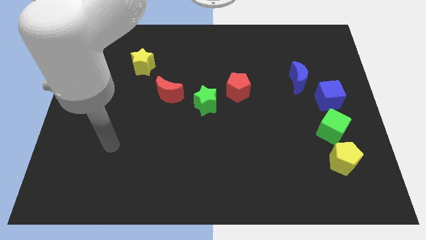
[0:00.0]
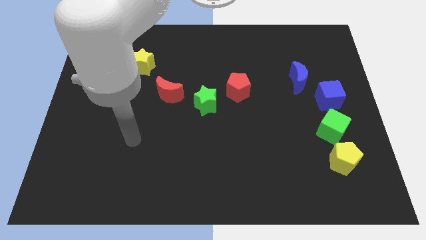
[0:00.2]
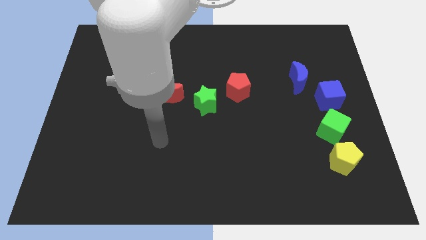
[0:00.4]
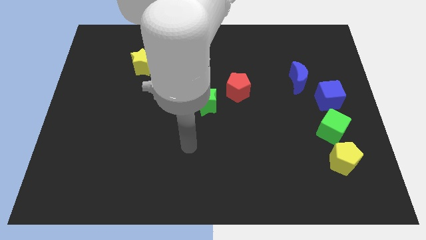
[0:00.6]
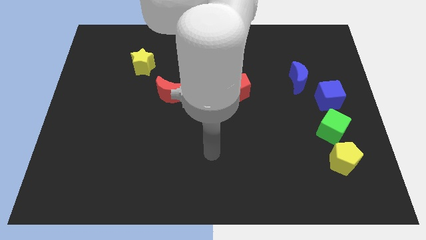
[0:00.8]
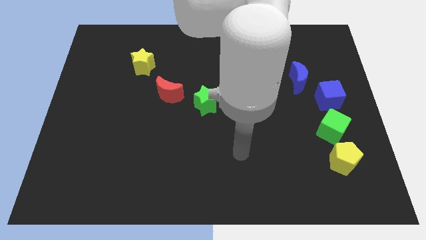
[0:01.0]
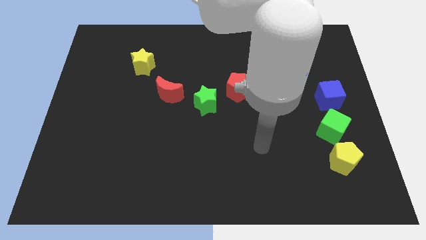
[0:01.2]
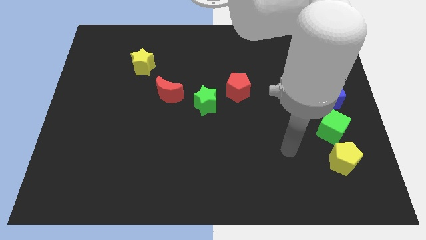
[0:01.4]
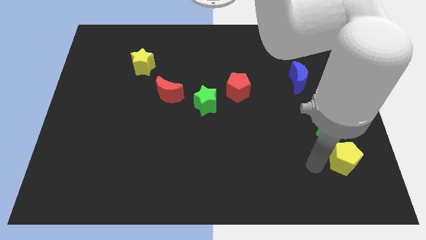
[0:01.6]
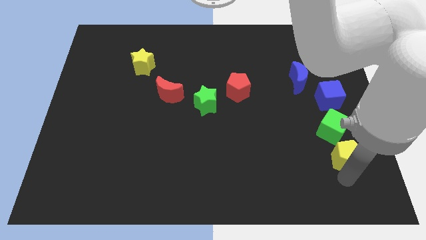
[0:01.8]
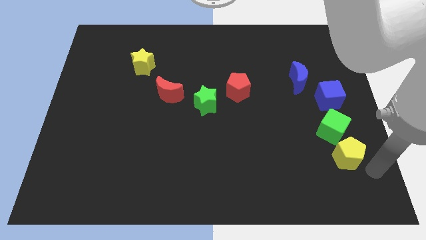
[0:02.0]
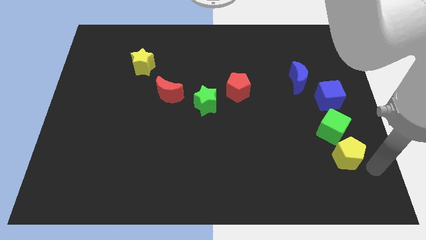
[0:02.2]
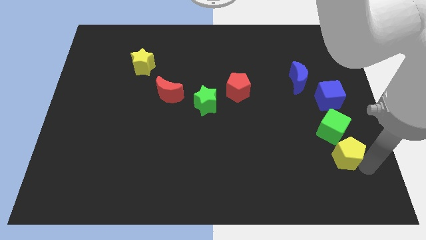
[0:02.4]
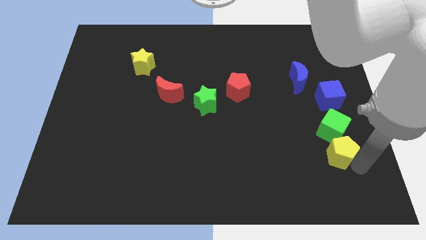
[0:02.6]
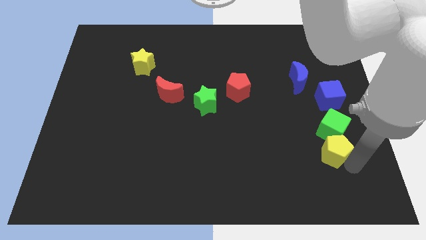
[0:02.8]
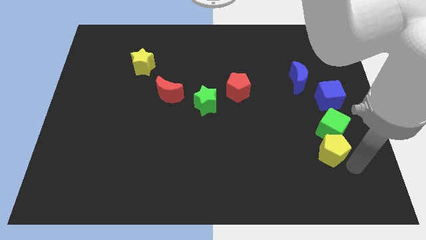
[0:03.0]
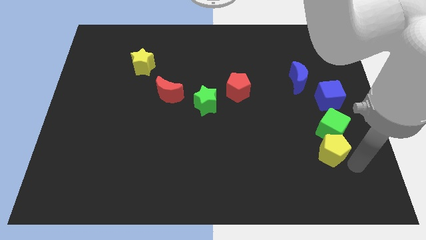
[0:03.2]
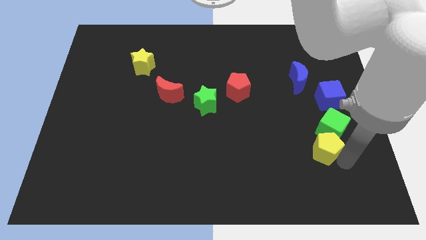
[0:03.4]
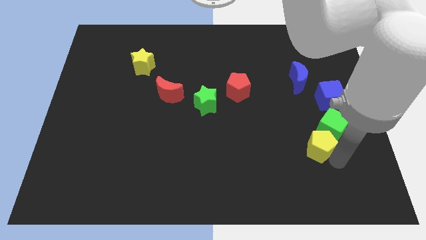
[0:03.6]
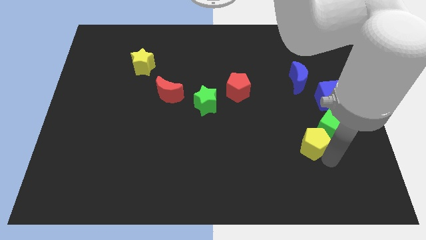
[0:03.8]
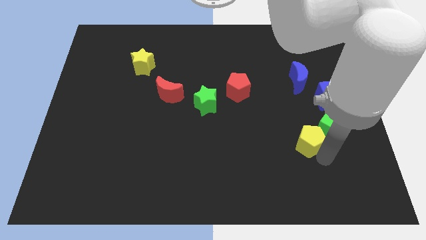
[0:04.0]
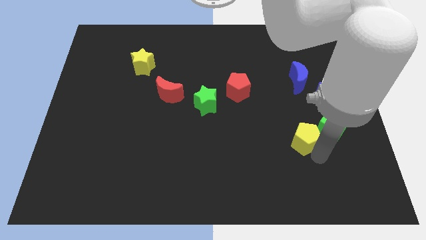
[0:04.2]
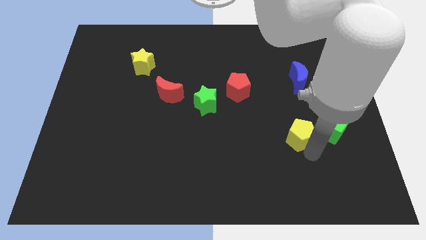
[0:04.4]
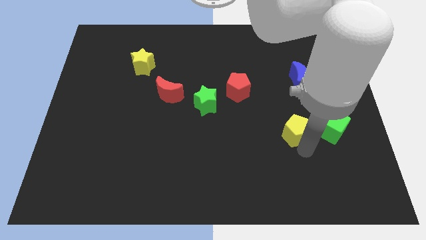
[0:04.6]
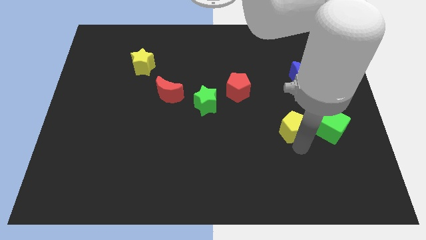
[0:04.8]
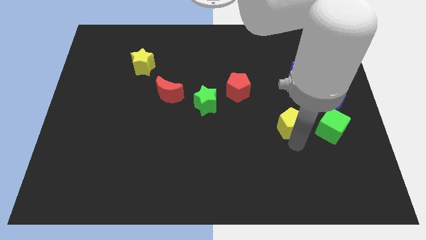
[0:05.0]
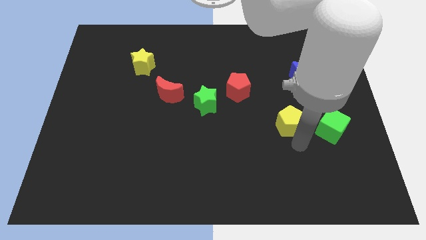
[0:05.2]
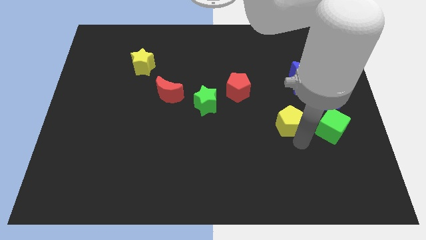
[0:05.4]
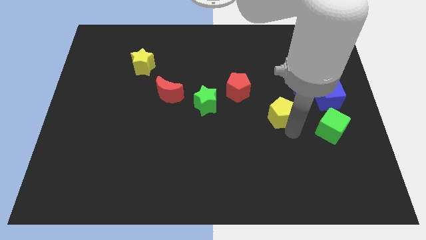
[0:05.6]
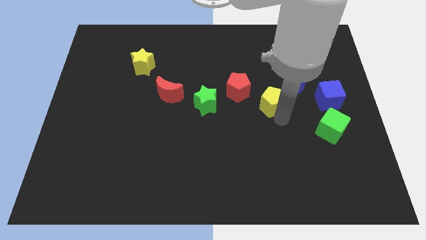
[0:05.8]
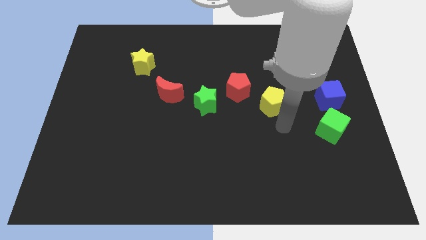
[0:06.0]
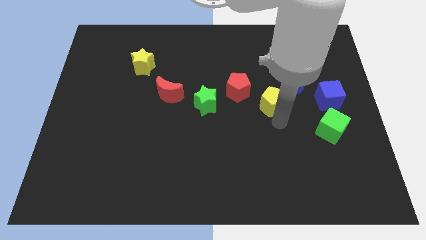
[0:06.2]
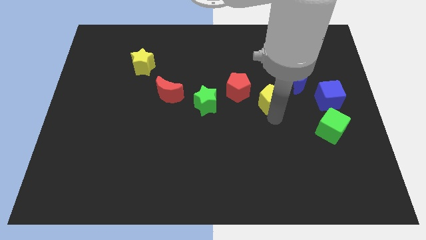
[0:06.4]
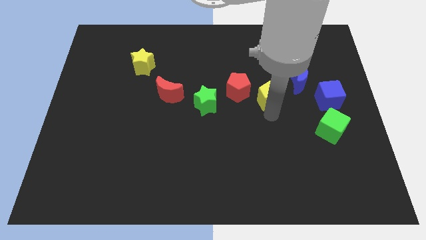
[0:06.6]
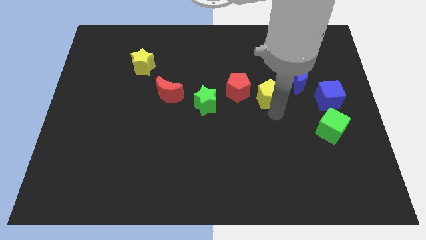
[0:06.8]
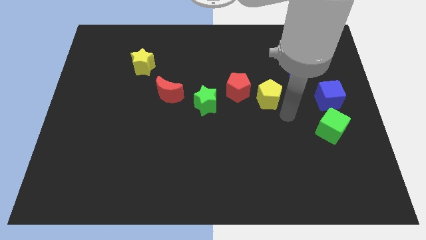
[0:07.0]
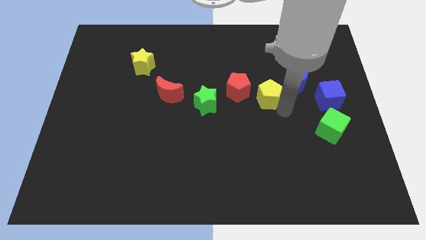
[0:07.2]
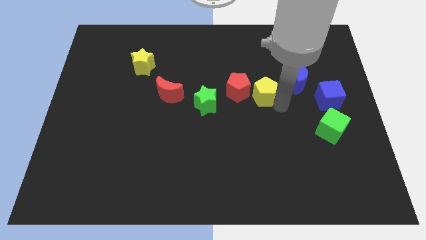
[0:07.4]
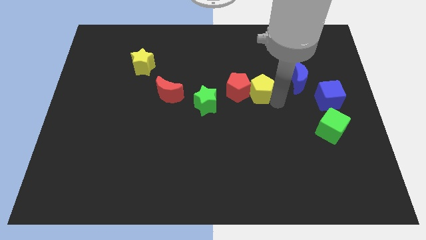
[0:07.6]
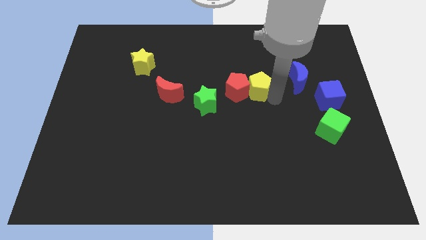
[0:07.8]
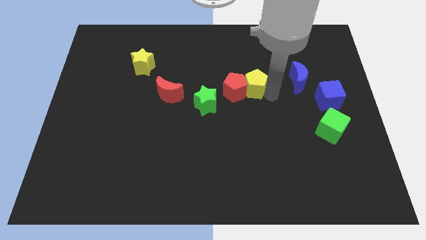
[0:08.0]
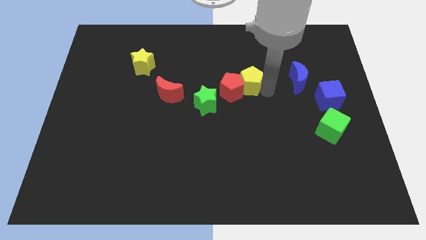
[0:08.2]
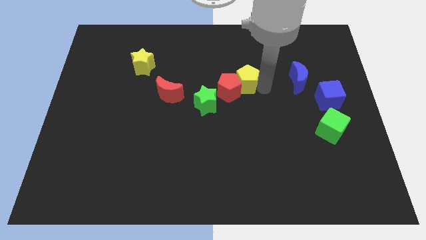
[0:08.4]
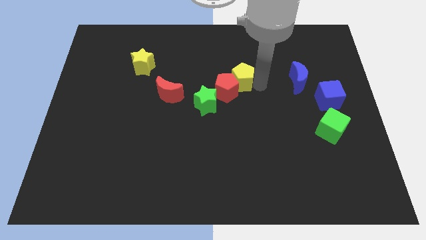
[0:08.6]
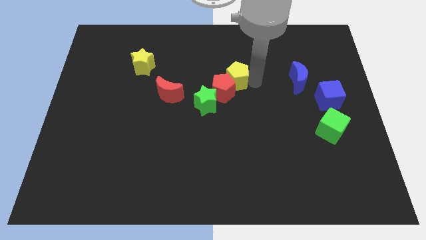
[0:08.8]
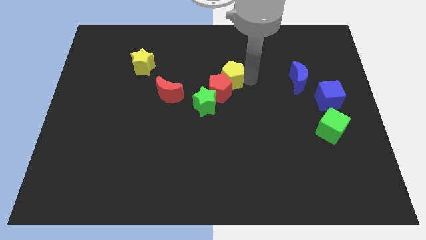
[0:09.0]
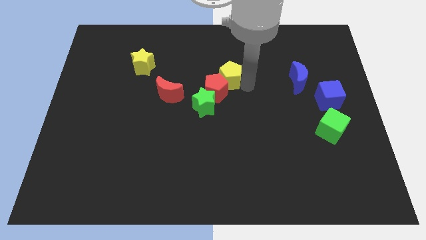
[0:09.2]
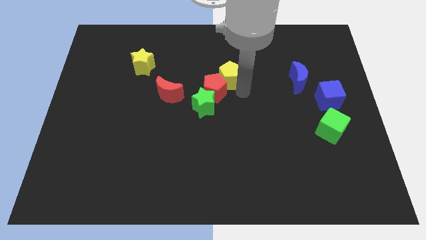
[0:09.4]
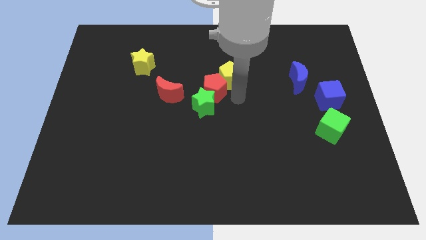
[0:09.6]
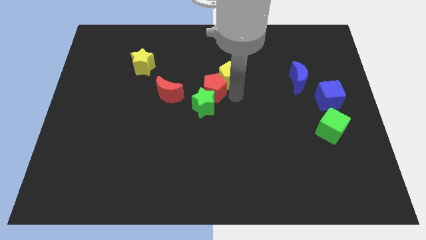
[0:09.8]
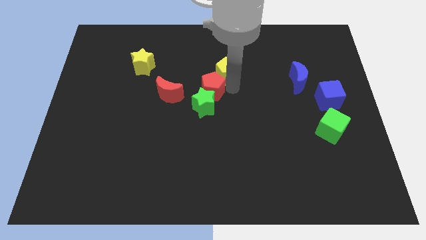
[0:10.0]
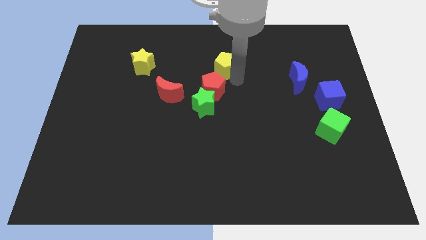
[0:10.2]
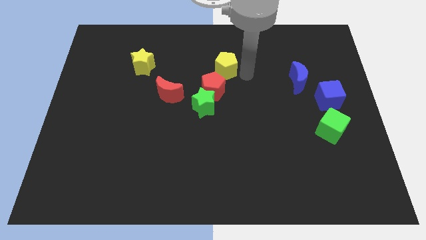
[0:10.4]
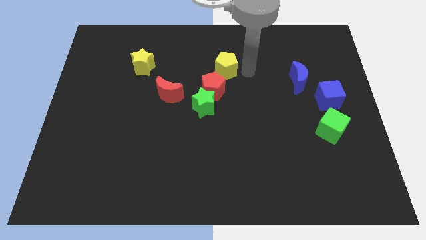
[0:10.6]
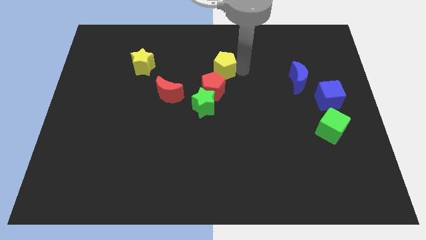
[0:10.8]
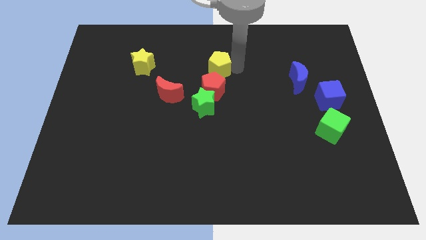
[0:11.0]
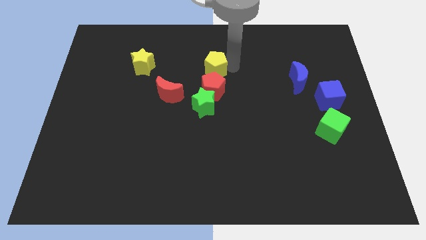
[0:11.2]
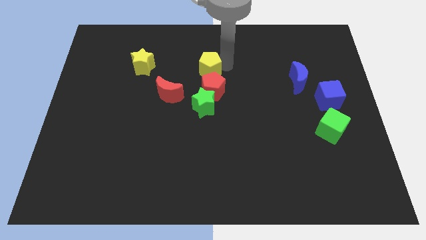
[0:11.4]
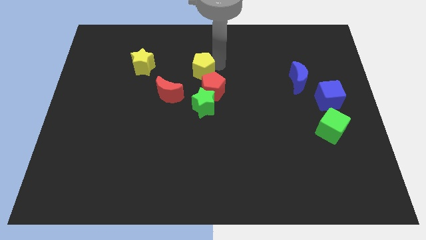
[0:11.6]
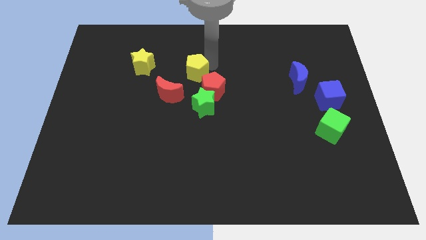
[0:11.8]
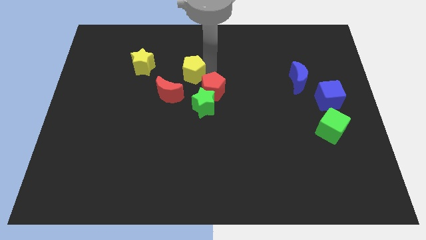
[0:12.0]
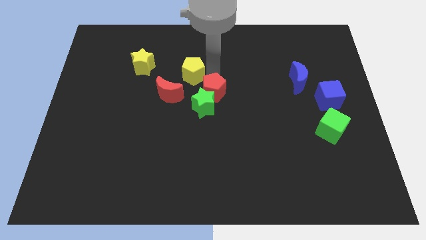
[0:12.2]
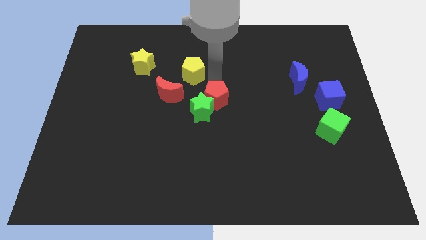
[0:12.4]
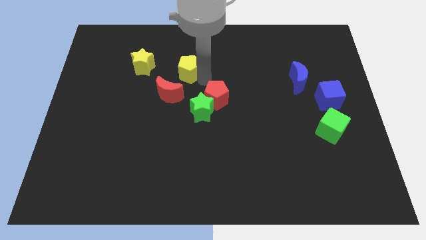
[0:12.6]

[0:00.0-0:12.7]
move the yellow pentagon to the top of the red moon
